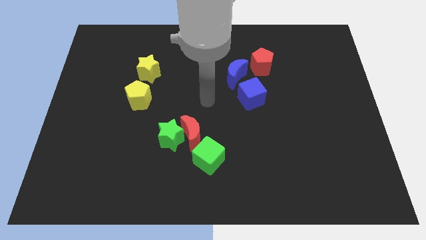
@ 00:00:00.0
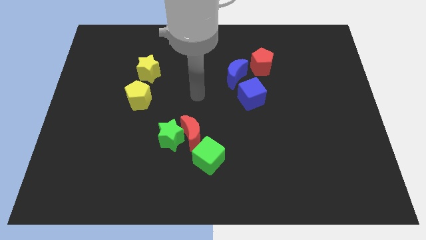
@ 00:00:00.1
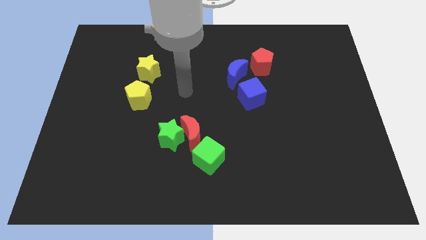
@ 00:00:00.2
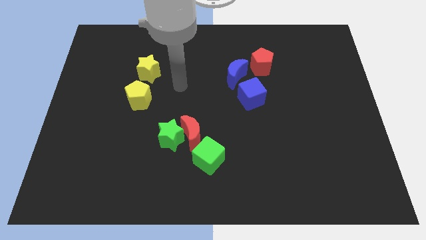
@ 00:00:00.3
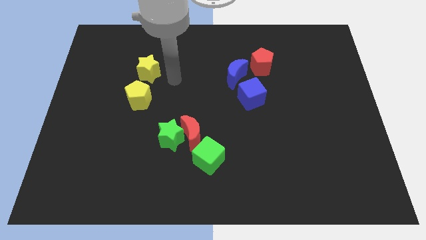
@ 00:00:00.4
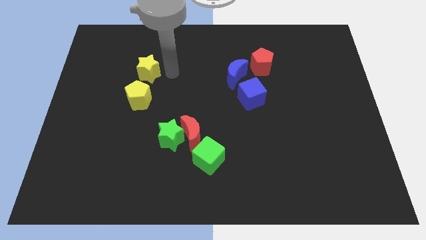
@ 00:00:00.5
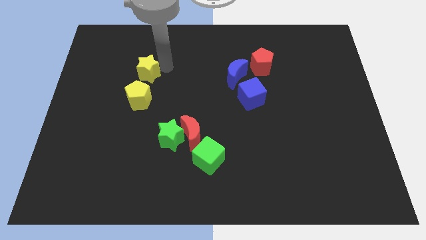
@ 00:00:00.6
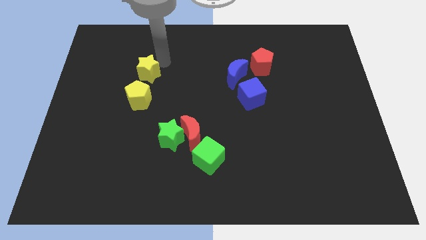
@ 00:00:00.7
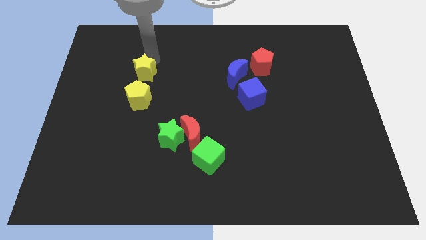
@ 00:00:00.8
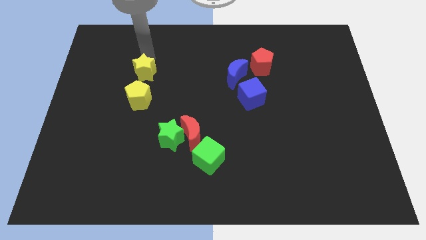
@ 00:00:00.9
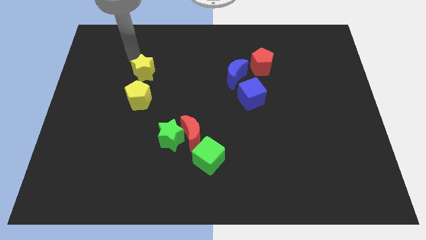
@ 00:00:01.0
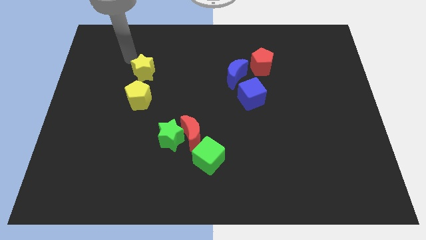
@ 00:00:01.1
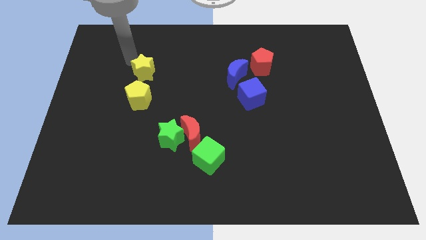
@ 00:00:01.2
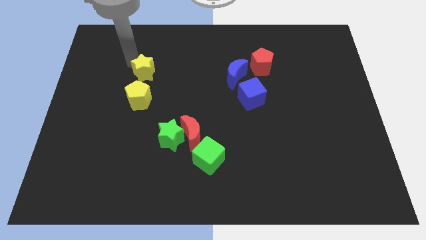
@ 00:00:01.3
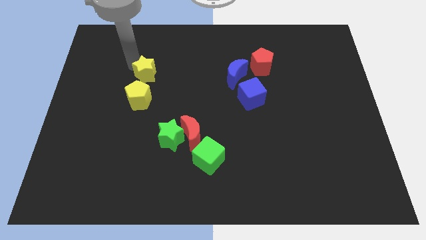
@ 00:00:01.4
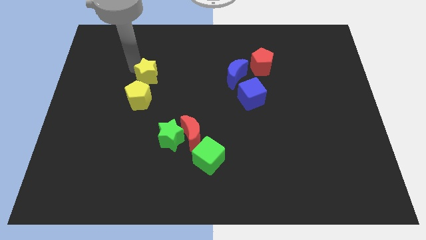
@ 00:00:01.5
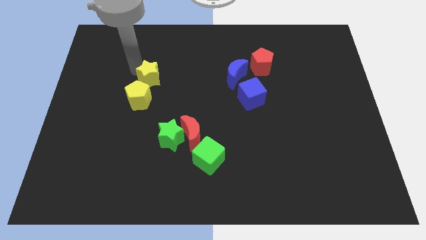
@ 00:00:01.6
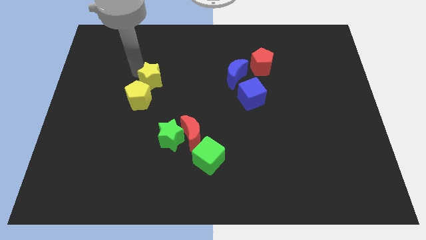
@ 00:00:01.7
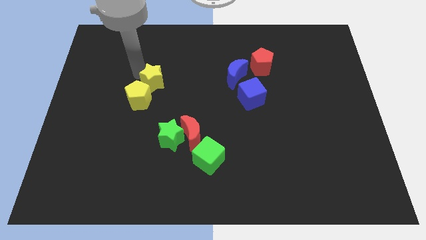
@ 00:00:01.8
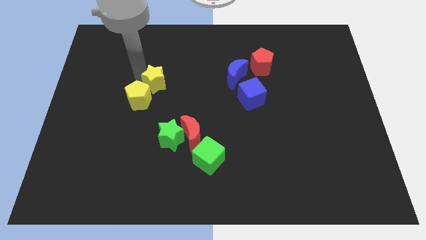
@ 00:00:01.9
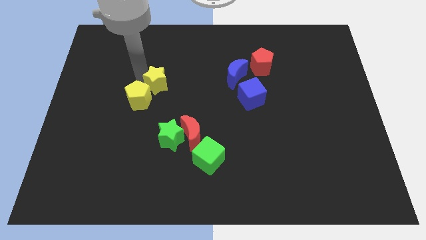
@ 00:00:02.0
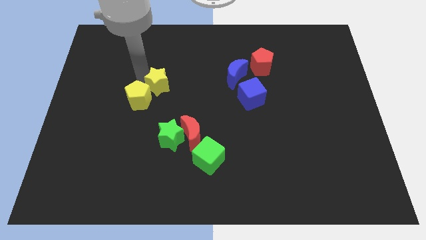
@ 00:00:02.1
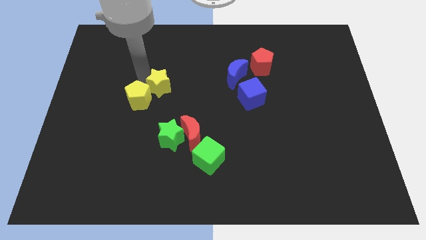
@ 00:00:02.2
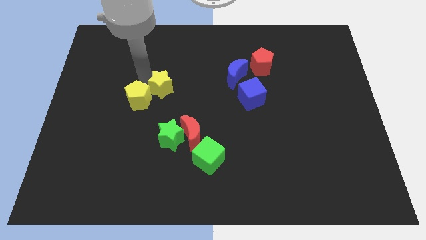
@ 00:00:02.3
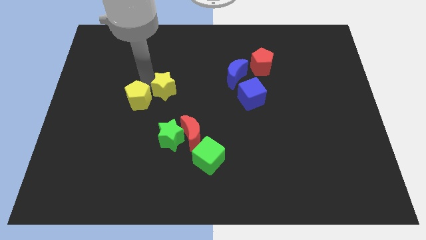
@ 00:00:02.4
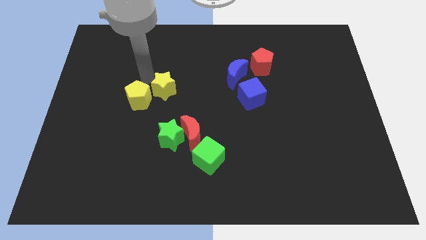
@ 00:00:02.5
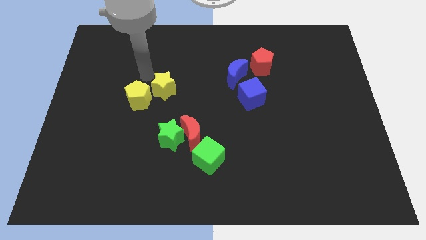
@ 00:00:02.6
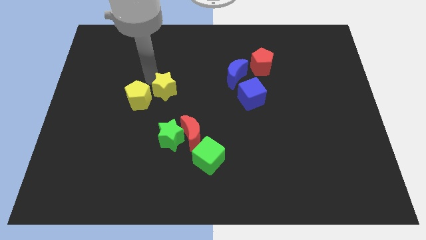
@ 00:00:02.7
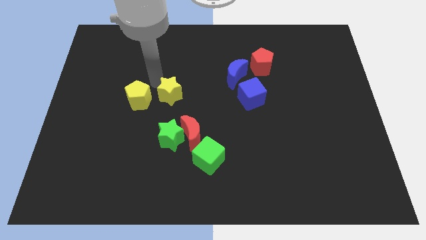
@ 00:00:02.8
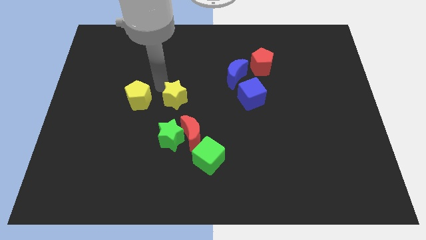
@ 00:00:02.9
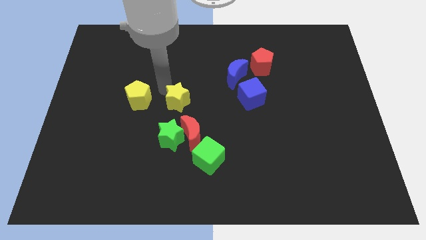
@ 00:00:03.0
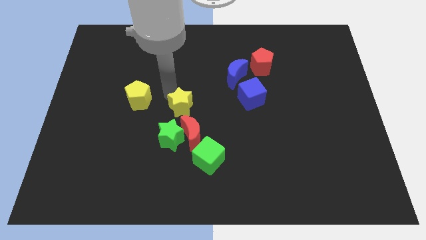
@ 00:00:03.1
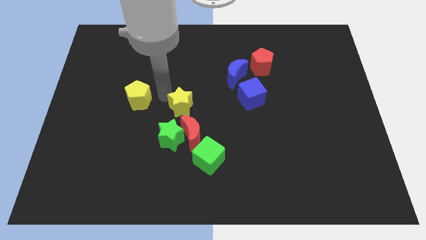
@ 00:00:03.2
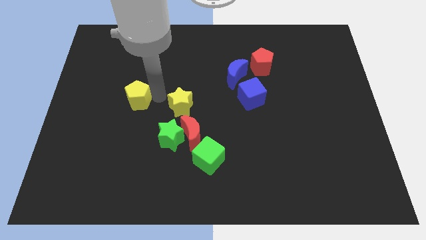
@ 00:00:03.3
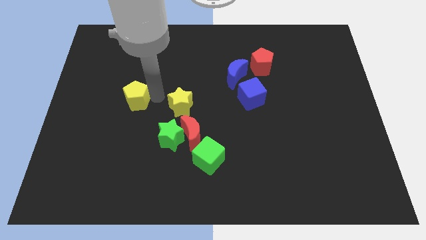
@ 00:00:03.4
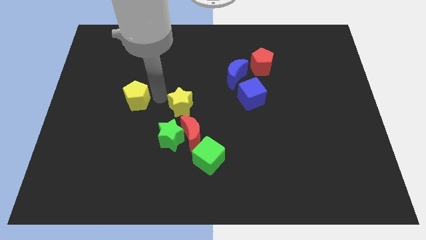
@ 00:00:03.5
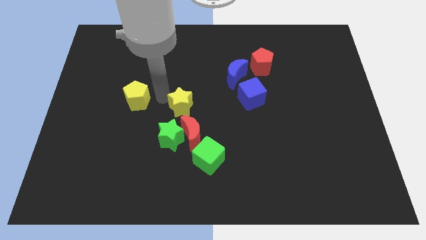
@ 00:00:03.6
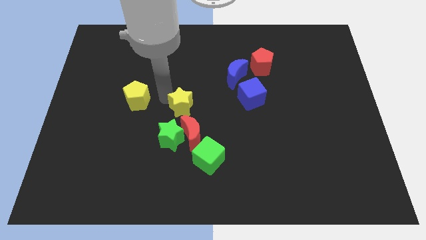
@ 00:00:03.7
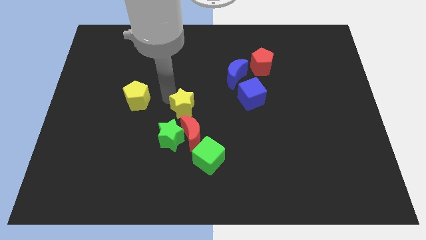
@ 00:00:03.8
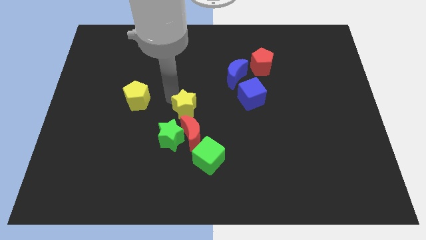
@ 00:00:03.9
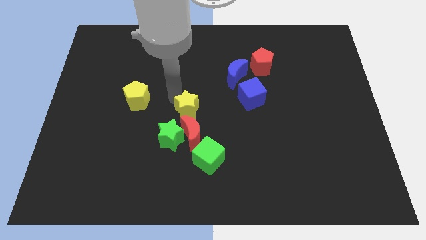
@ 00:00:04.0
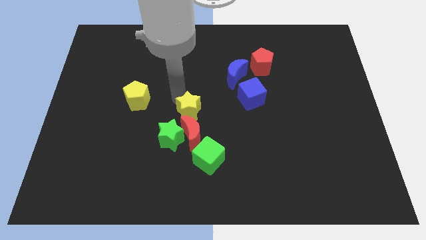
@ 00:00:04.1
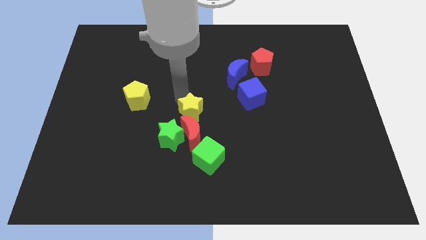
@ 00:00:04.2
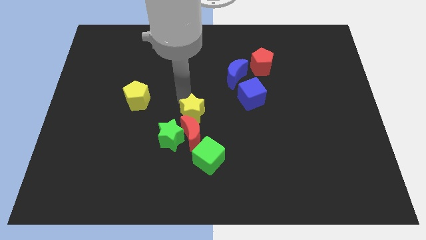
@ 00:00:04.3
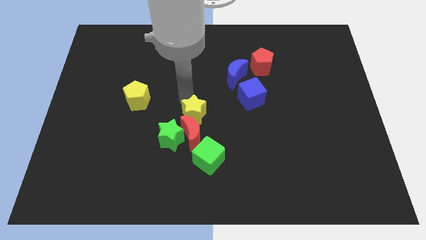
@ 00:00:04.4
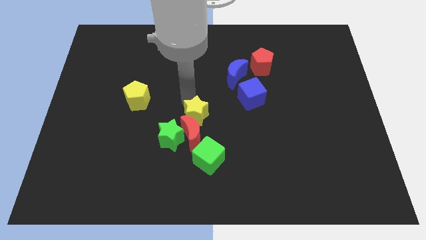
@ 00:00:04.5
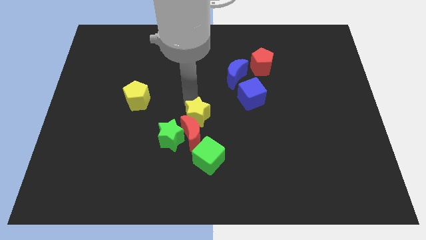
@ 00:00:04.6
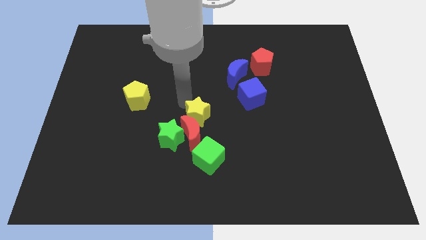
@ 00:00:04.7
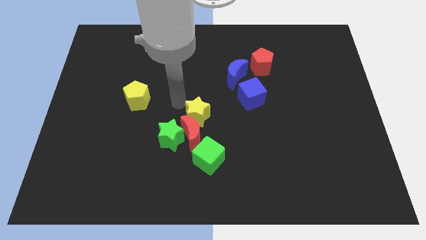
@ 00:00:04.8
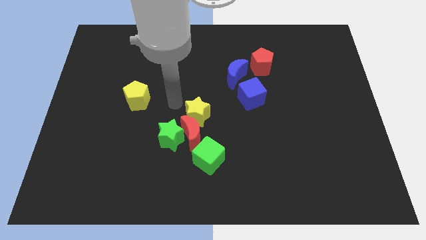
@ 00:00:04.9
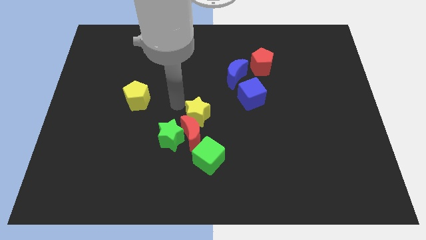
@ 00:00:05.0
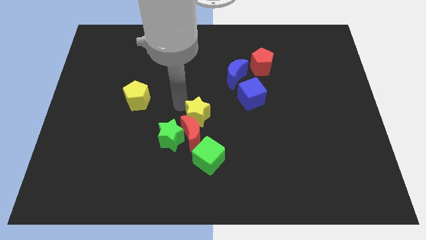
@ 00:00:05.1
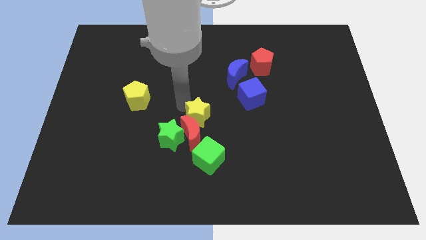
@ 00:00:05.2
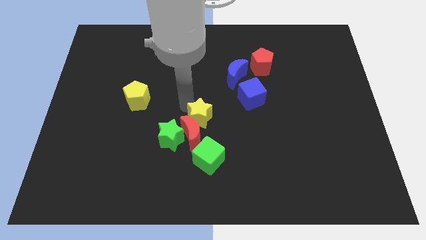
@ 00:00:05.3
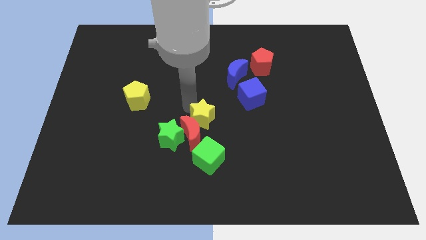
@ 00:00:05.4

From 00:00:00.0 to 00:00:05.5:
slide the yellow star down and to the right

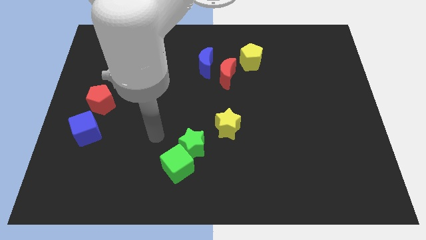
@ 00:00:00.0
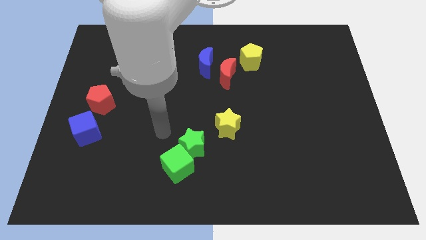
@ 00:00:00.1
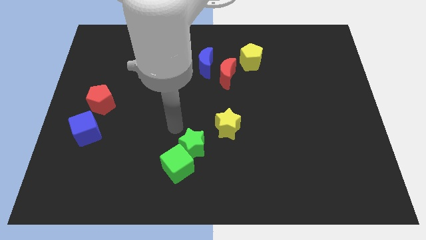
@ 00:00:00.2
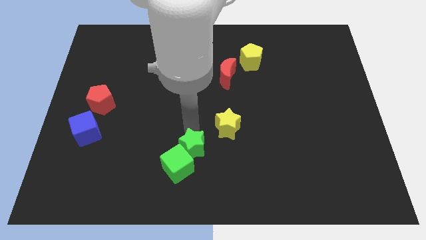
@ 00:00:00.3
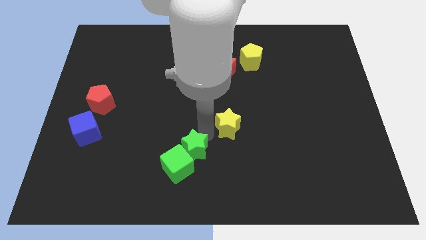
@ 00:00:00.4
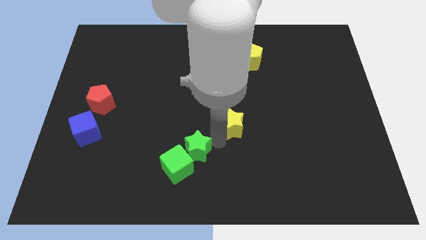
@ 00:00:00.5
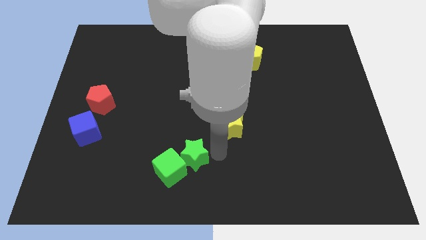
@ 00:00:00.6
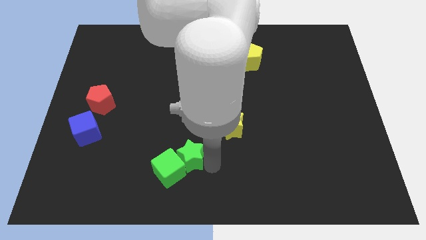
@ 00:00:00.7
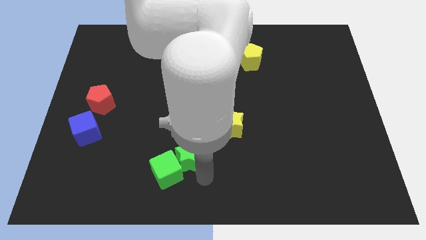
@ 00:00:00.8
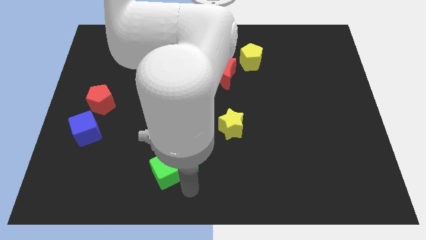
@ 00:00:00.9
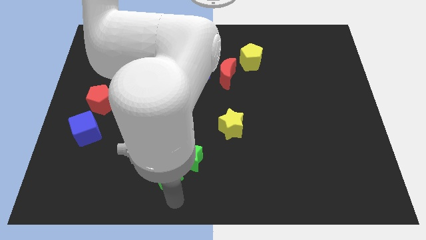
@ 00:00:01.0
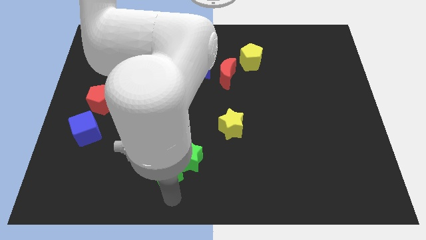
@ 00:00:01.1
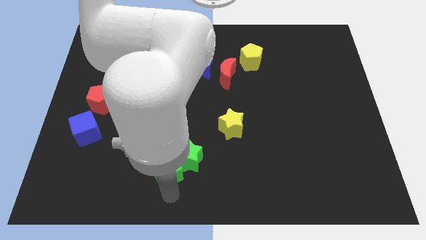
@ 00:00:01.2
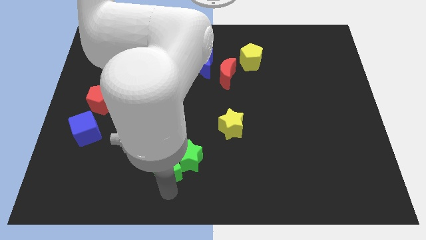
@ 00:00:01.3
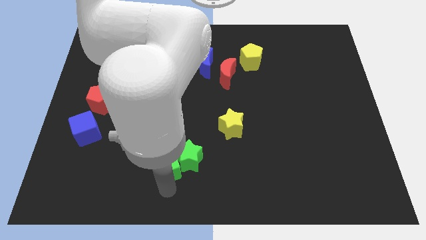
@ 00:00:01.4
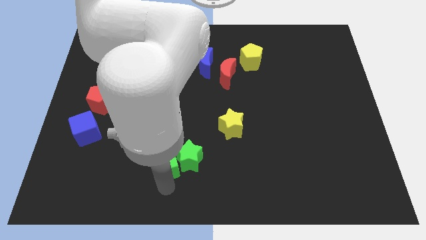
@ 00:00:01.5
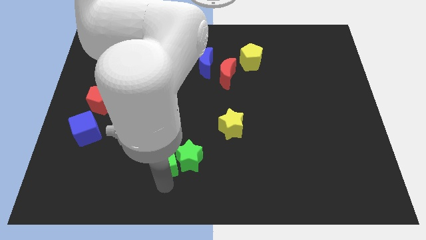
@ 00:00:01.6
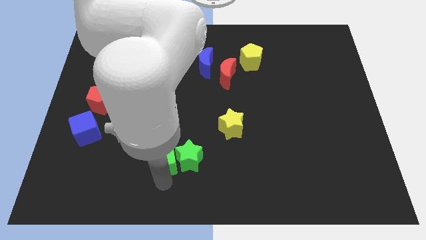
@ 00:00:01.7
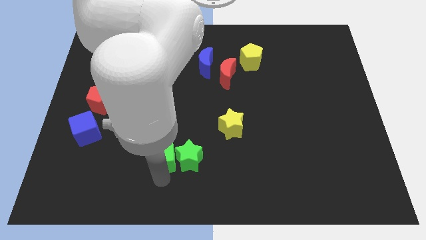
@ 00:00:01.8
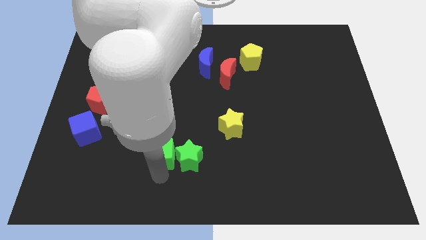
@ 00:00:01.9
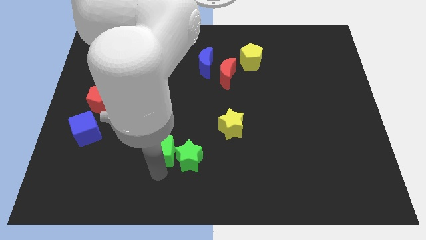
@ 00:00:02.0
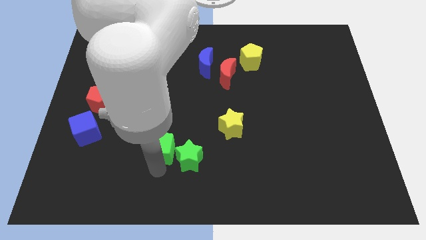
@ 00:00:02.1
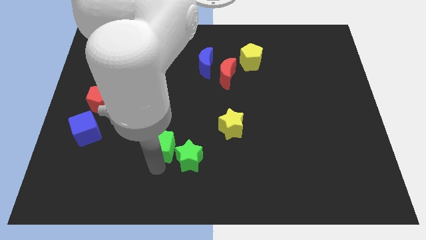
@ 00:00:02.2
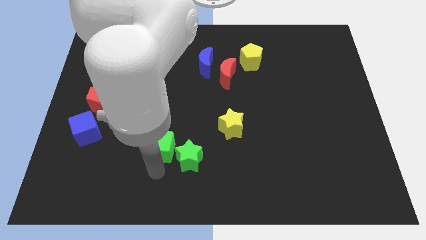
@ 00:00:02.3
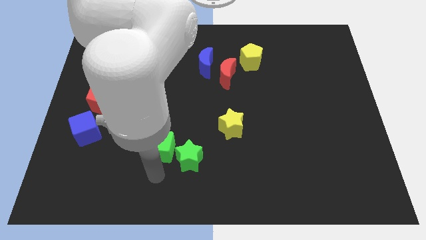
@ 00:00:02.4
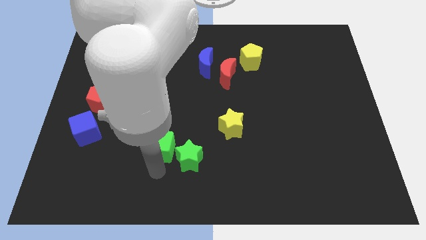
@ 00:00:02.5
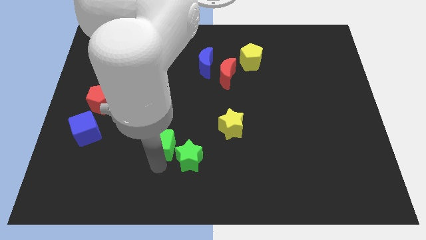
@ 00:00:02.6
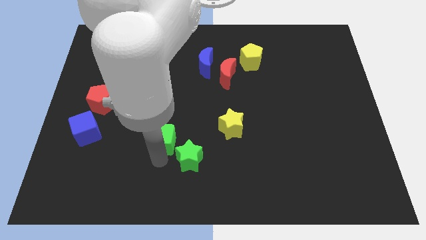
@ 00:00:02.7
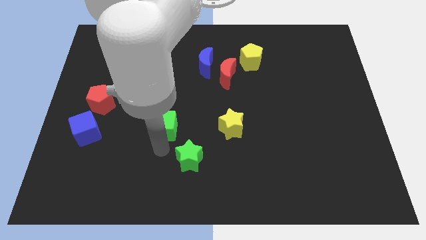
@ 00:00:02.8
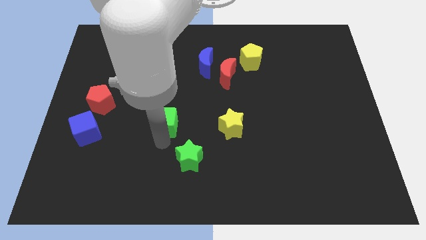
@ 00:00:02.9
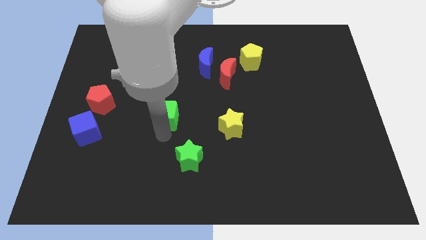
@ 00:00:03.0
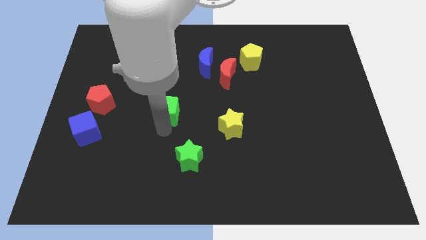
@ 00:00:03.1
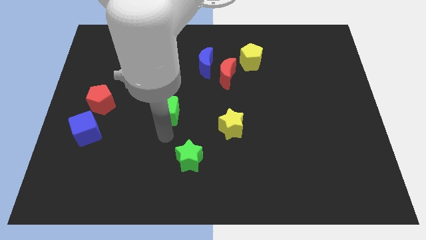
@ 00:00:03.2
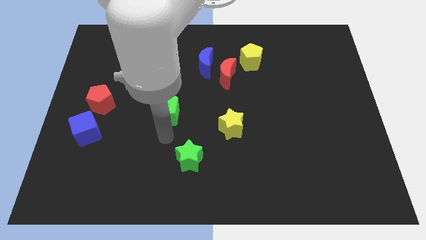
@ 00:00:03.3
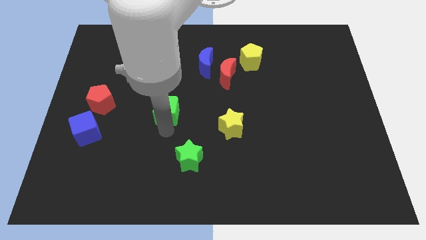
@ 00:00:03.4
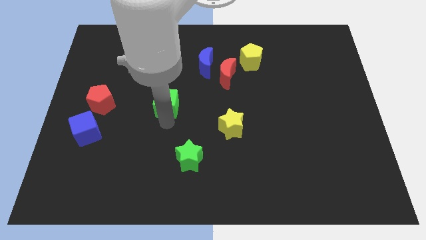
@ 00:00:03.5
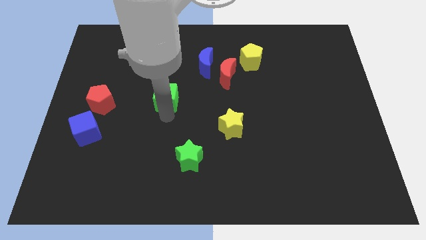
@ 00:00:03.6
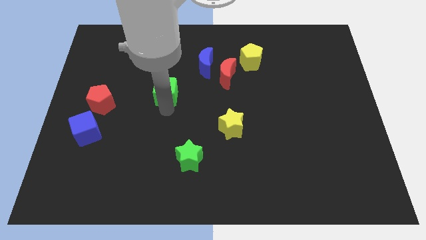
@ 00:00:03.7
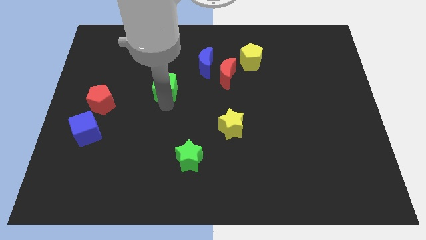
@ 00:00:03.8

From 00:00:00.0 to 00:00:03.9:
move the green cube up
